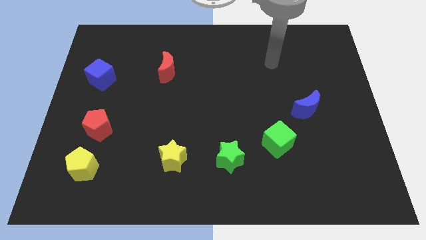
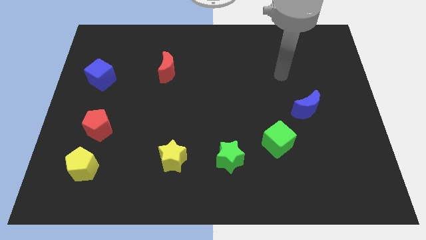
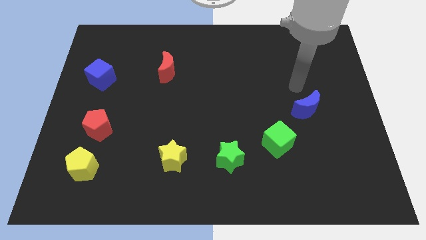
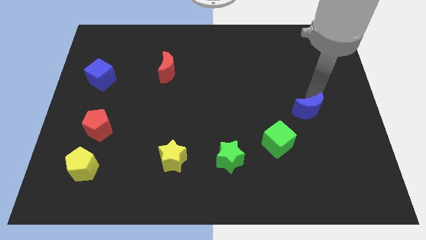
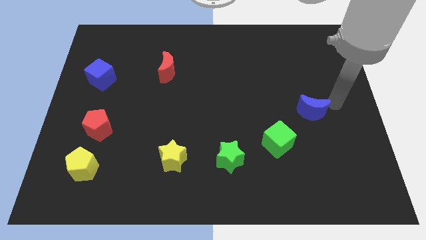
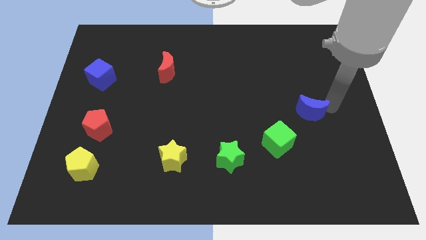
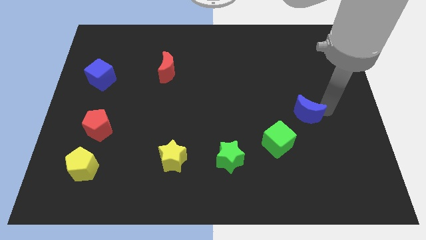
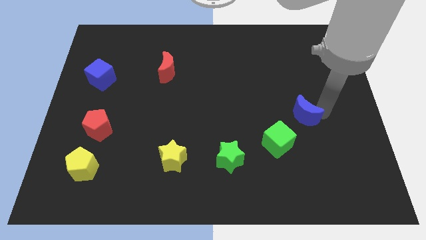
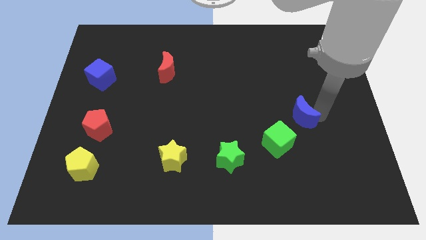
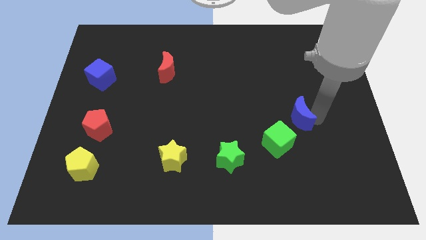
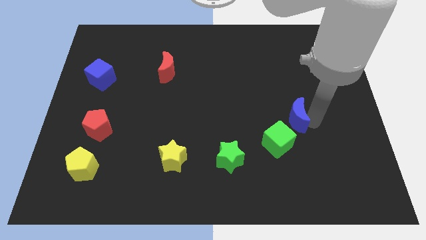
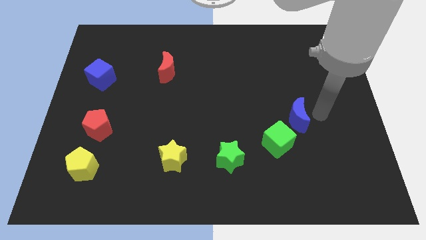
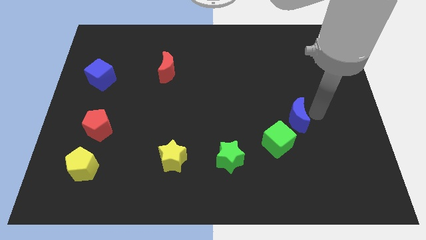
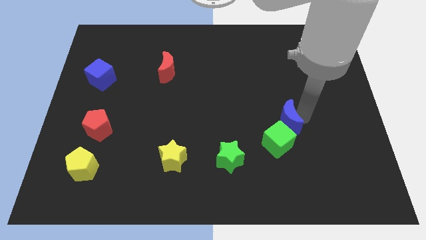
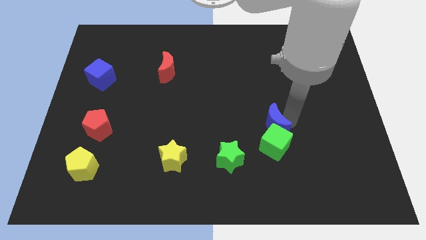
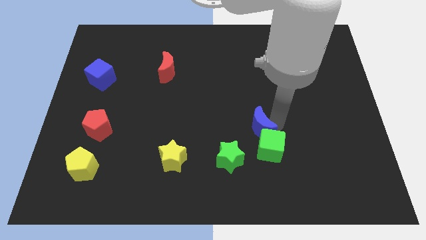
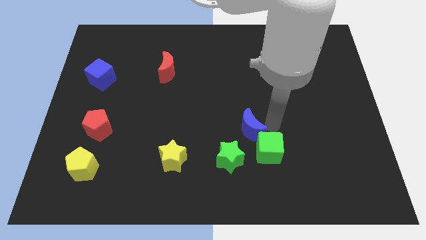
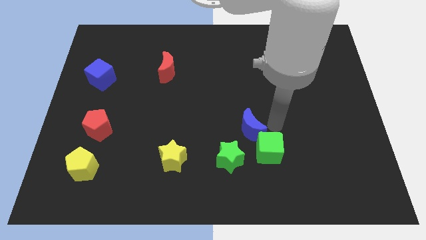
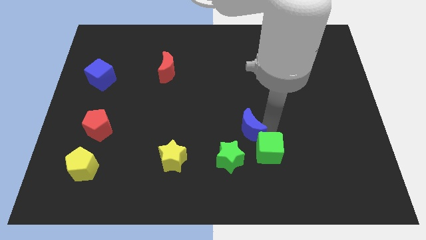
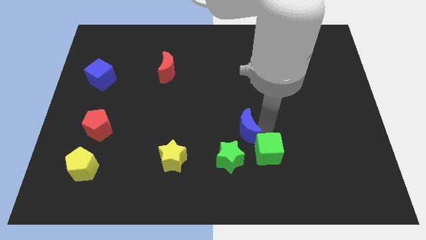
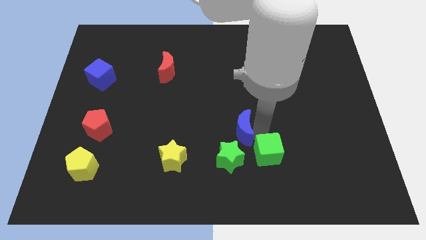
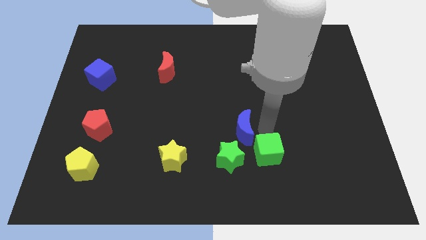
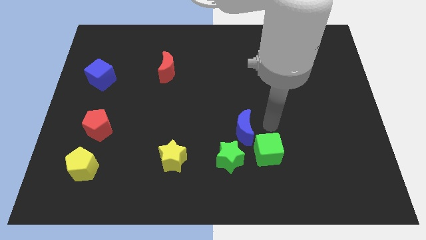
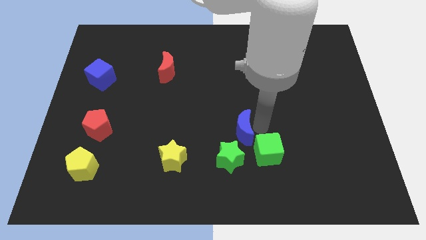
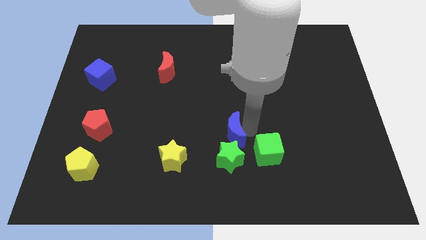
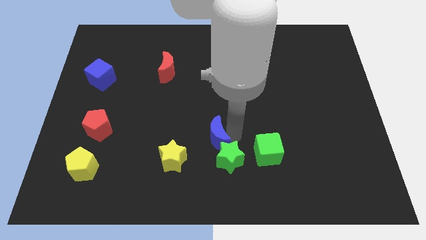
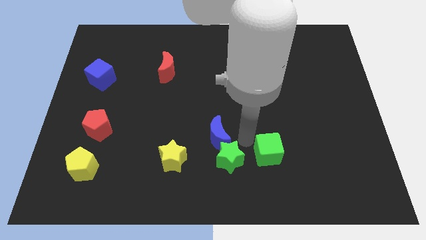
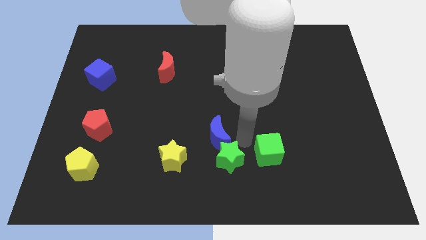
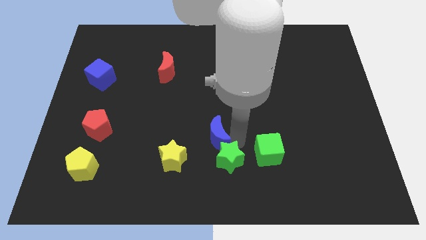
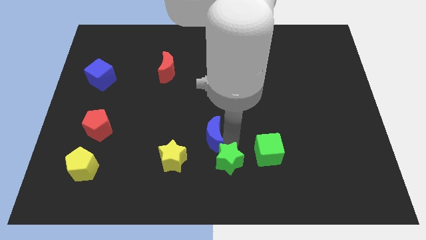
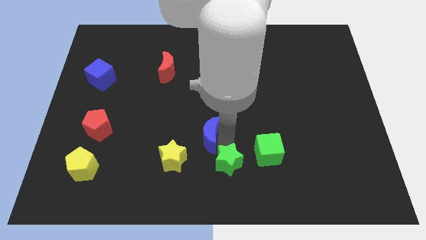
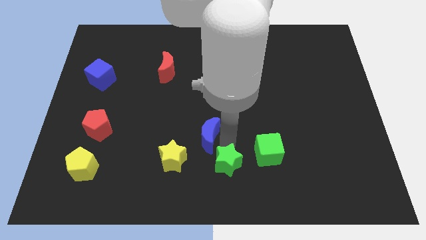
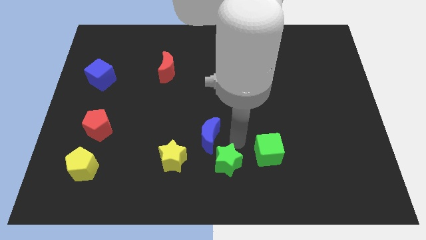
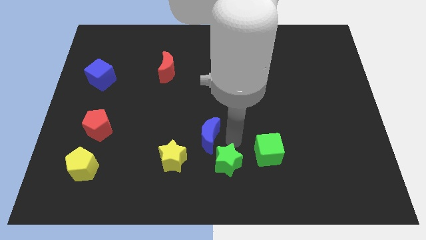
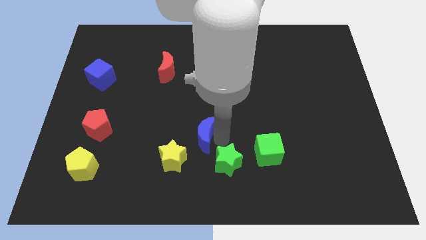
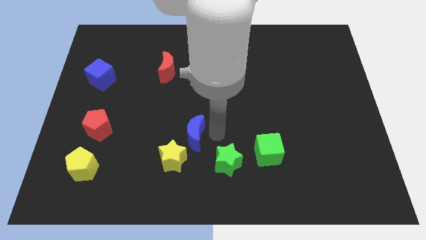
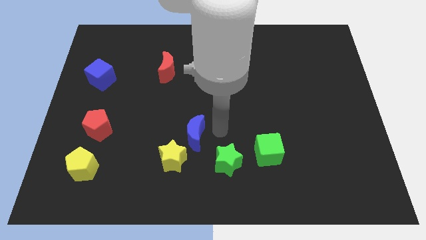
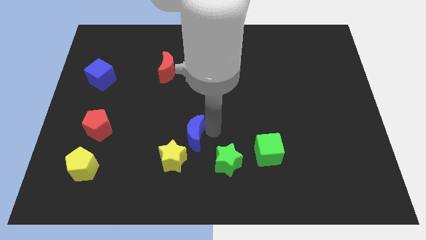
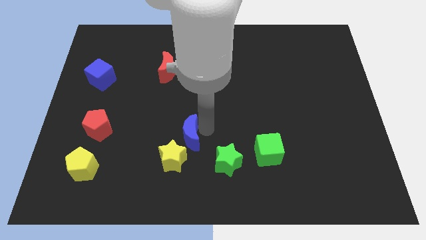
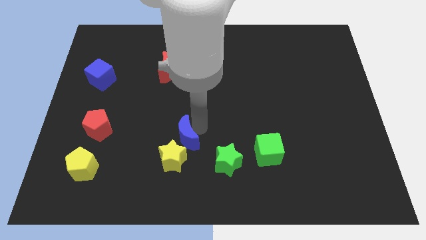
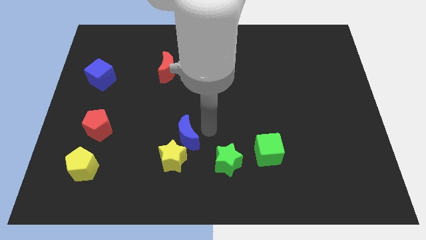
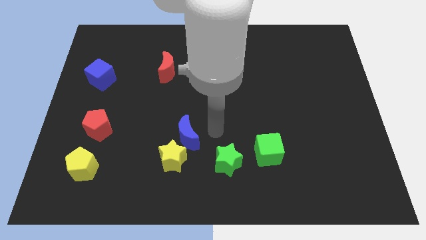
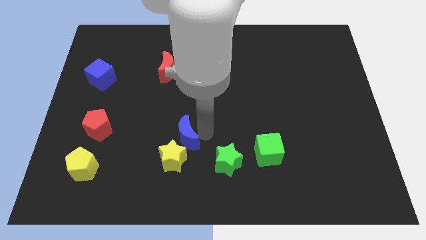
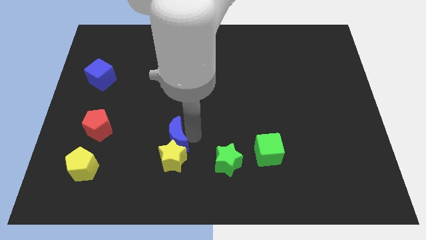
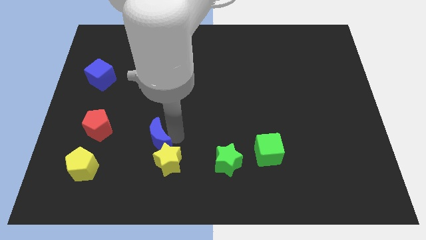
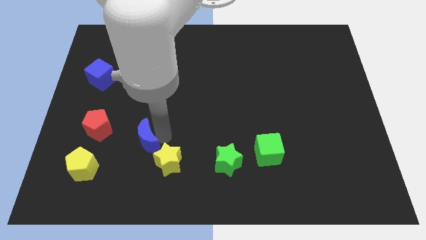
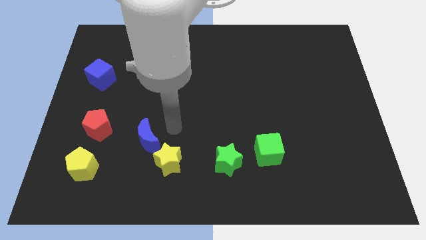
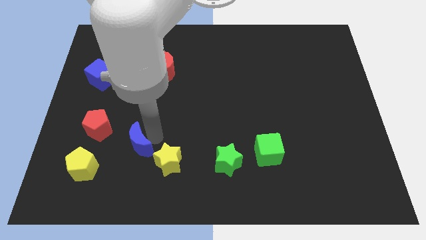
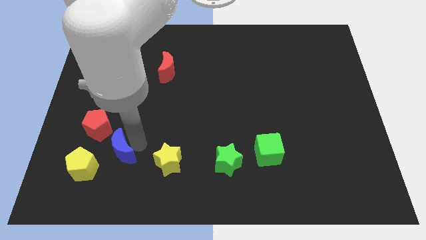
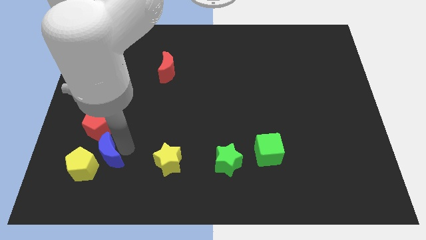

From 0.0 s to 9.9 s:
move the blue moon to the yellow pentagon

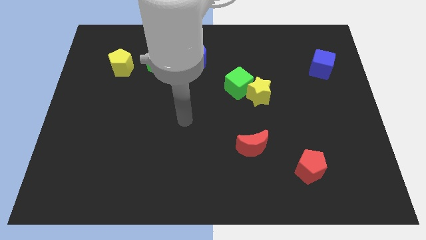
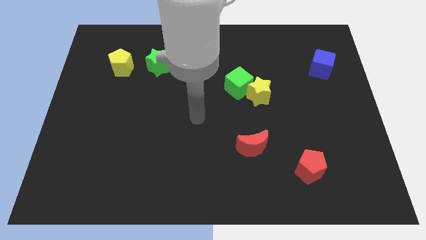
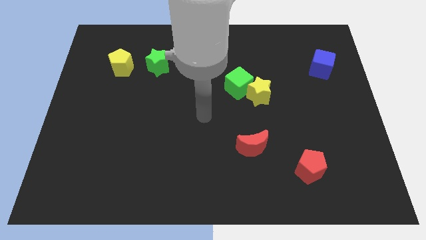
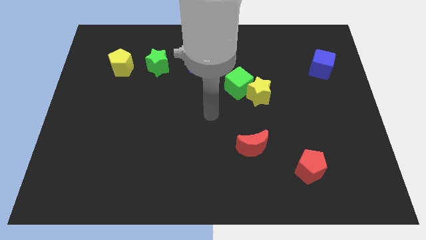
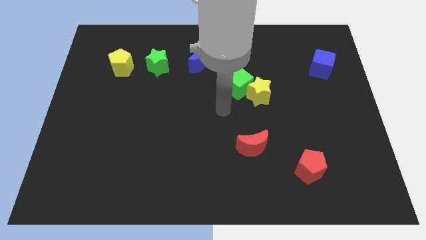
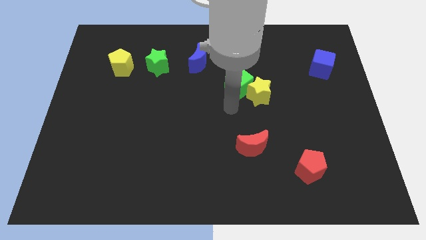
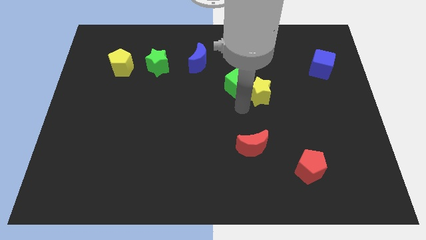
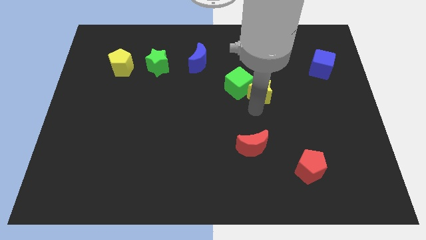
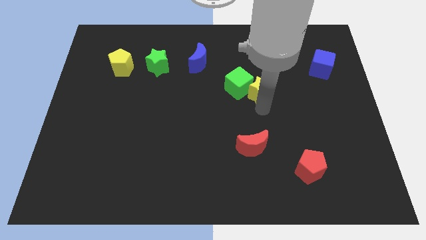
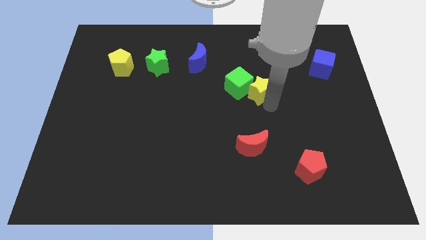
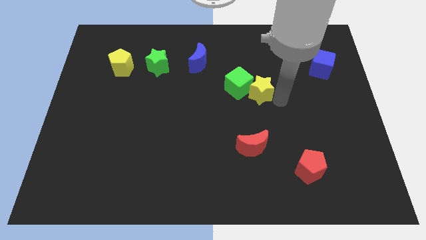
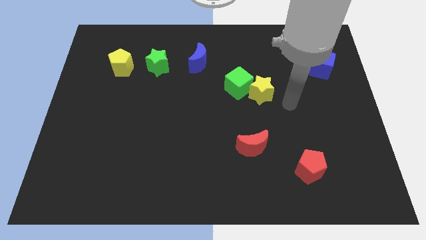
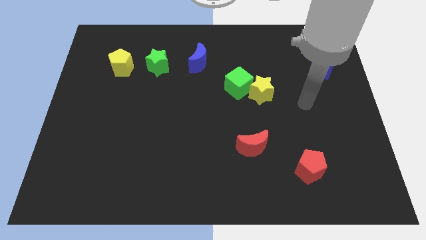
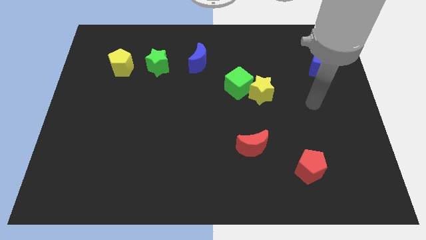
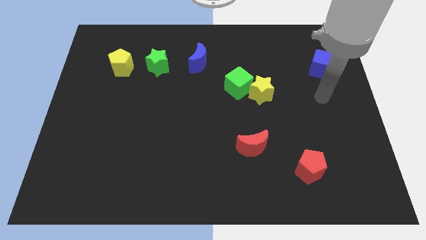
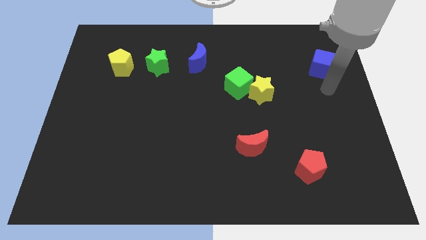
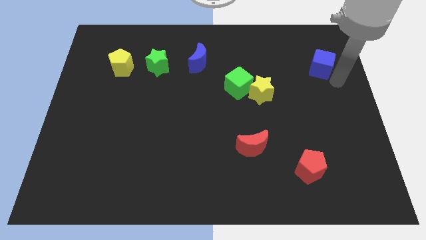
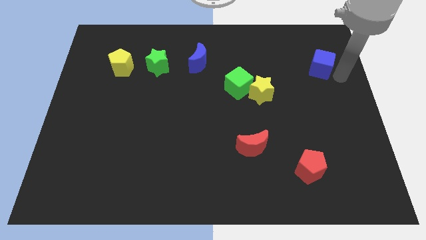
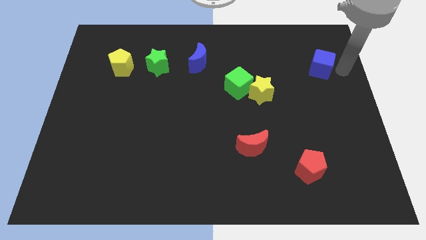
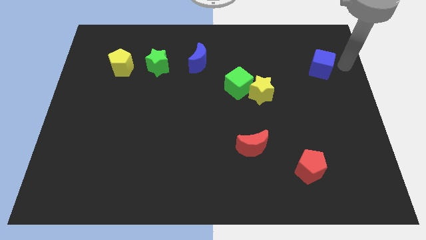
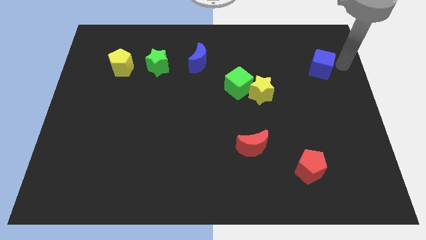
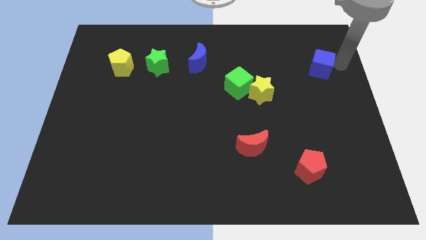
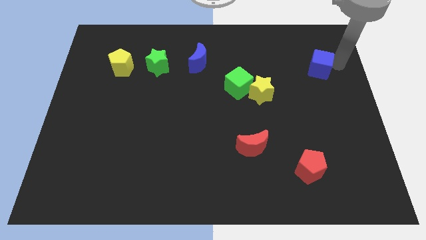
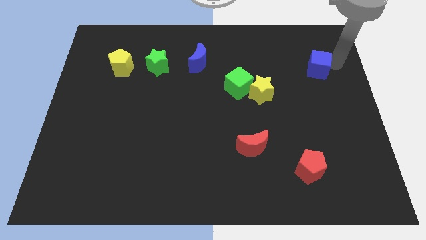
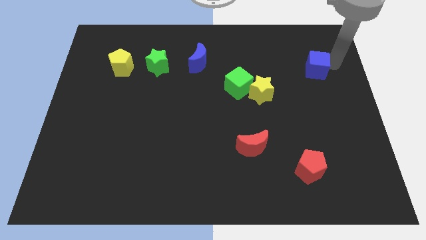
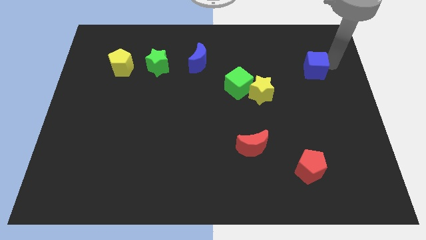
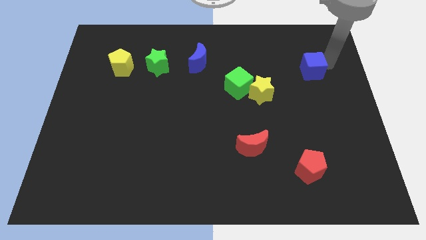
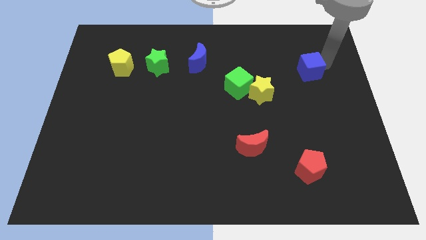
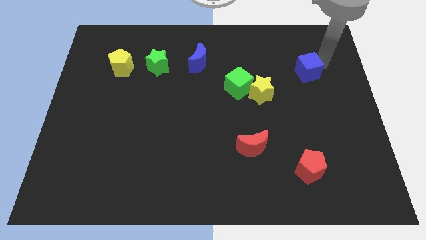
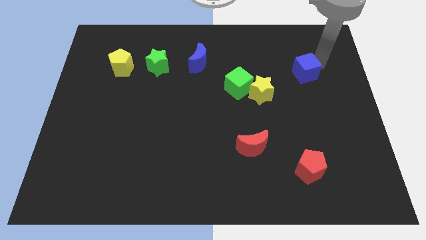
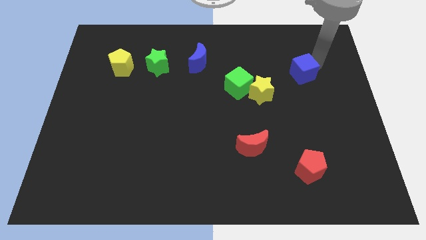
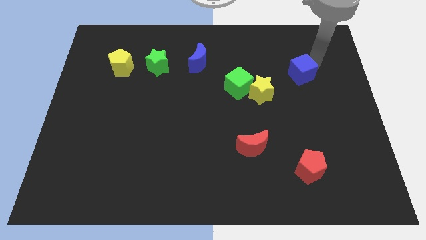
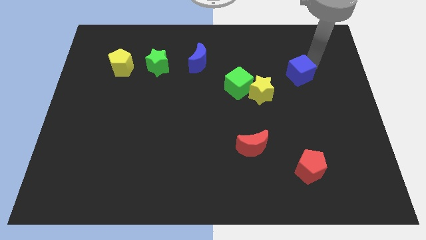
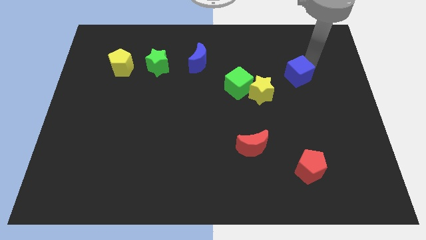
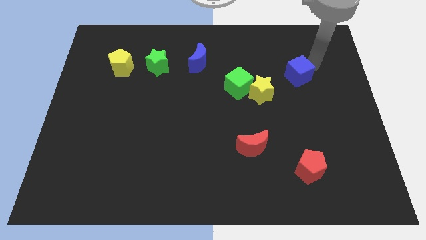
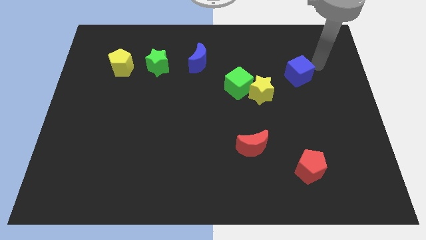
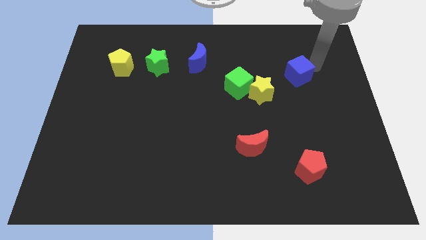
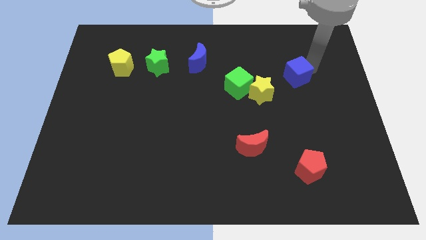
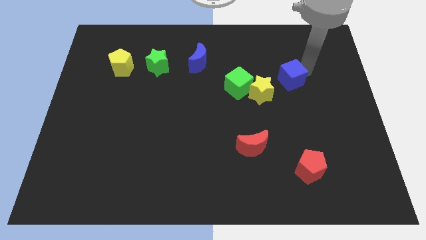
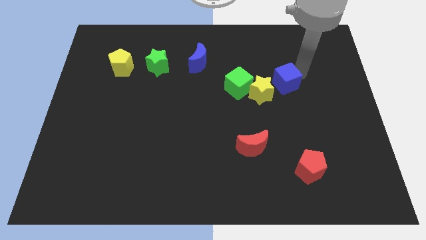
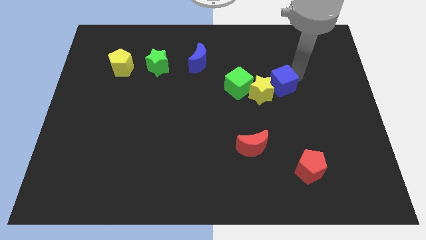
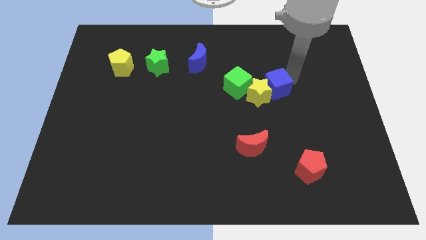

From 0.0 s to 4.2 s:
put the blue cube towards the yellow star
